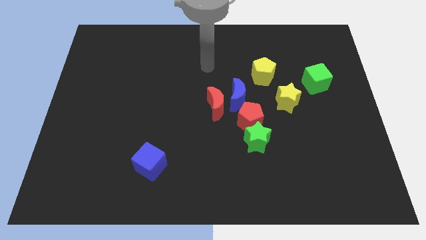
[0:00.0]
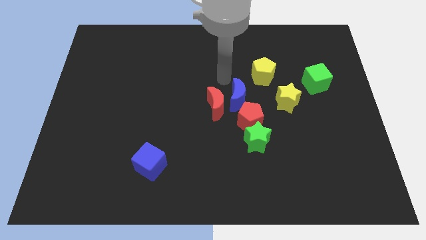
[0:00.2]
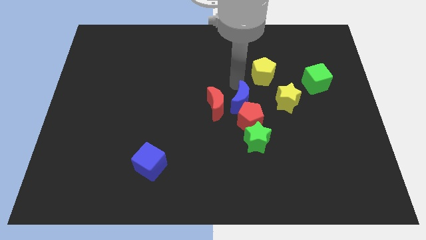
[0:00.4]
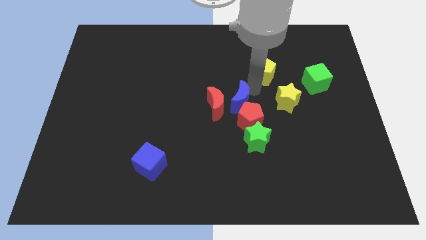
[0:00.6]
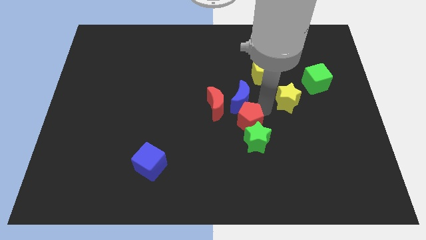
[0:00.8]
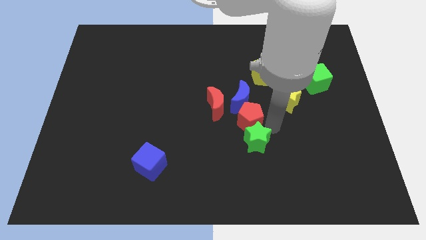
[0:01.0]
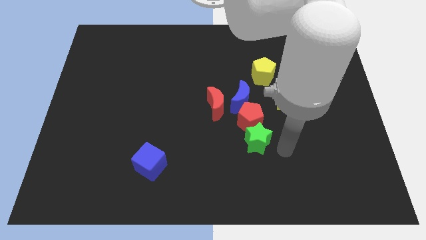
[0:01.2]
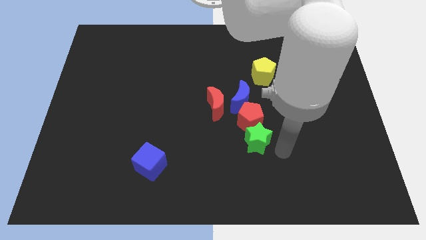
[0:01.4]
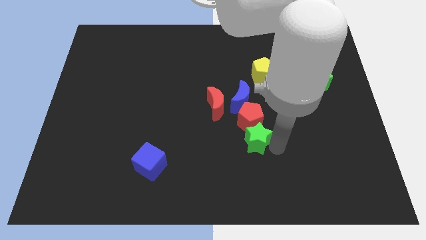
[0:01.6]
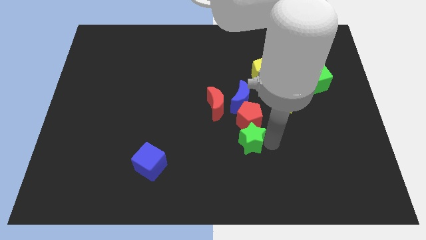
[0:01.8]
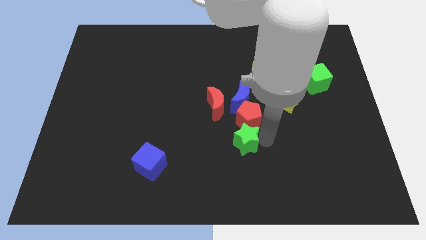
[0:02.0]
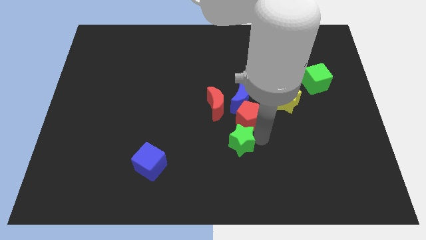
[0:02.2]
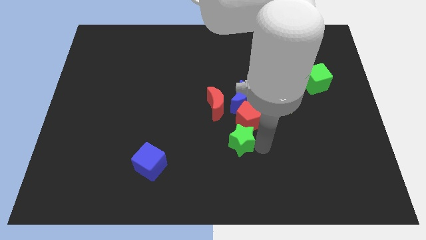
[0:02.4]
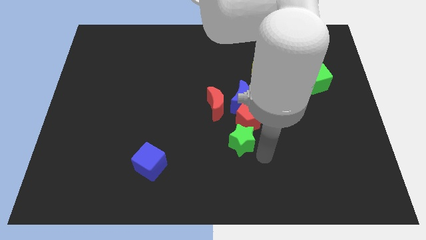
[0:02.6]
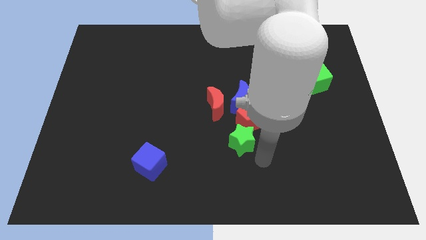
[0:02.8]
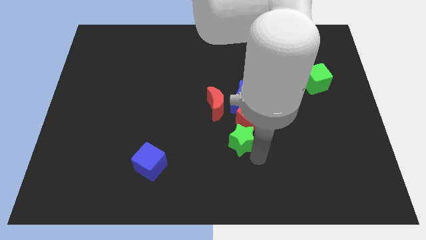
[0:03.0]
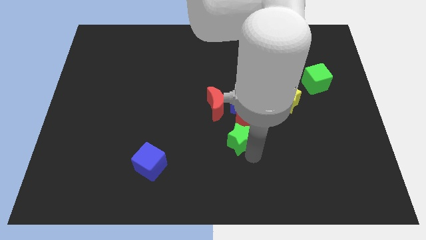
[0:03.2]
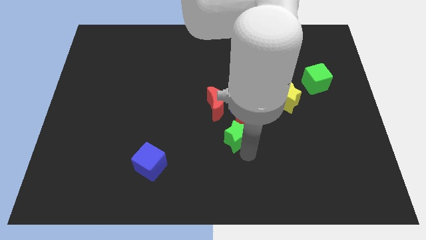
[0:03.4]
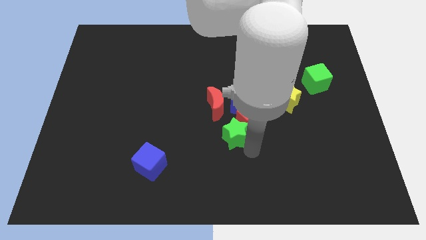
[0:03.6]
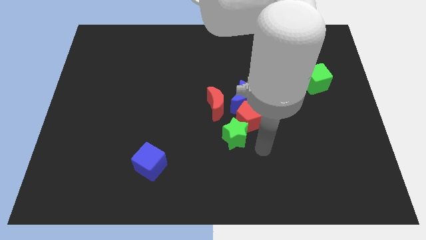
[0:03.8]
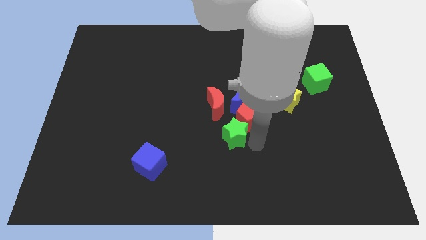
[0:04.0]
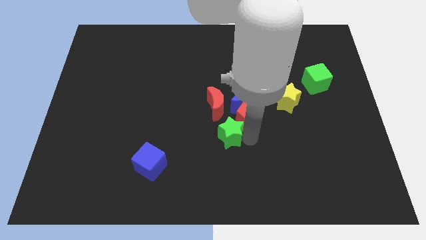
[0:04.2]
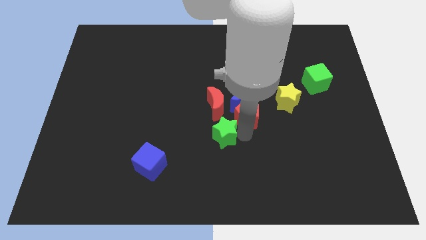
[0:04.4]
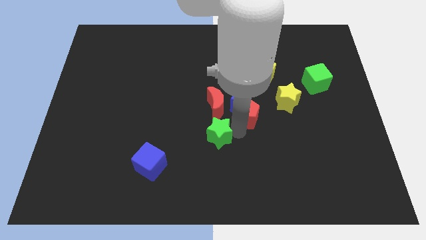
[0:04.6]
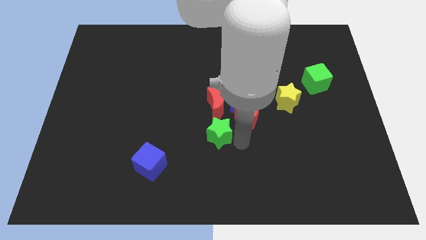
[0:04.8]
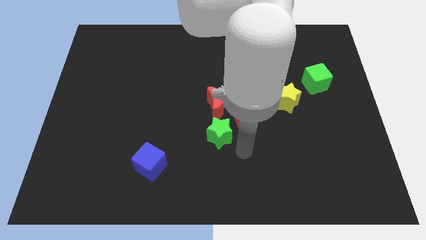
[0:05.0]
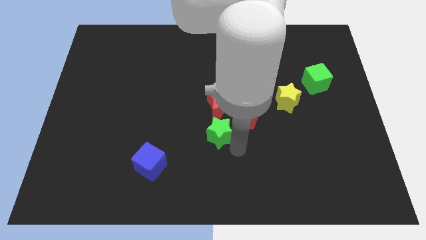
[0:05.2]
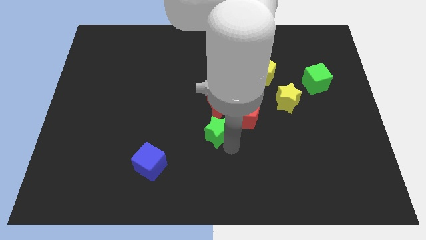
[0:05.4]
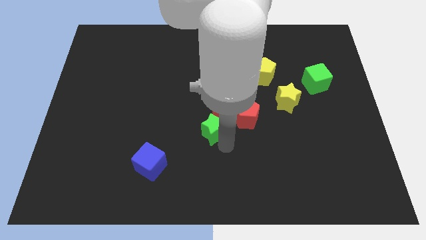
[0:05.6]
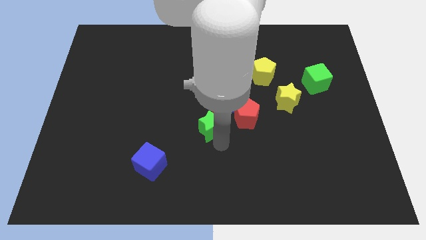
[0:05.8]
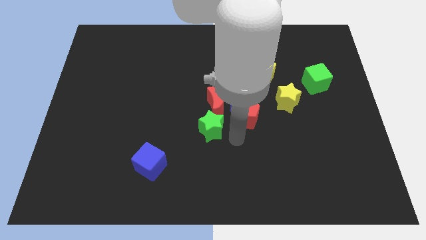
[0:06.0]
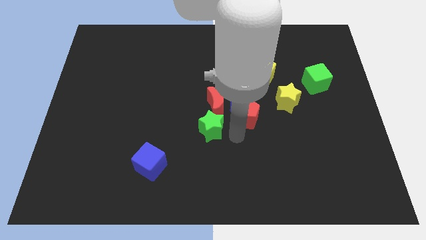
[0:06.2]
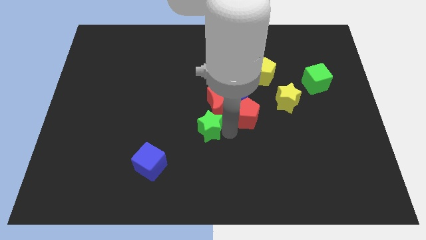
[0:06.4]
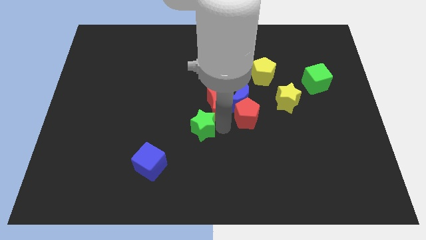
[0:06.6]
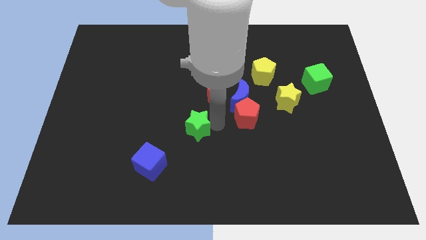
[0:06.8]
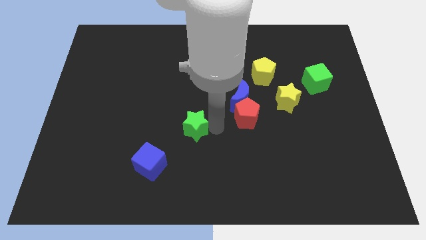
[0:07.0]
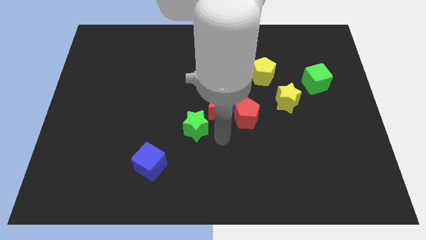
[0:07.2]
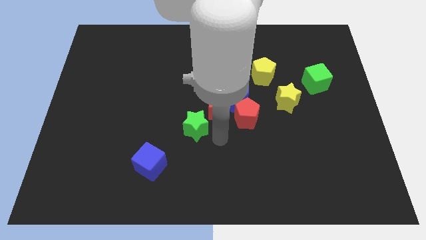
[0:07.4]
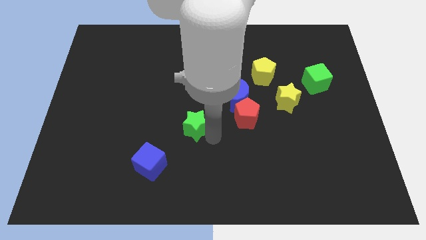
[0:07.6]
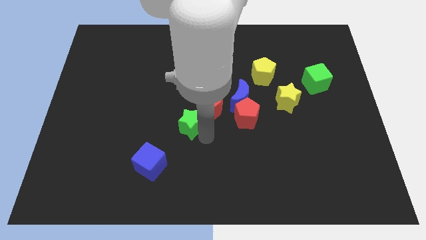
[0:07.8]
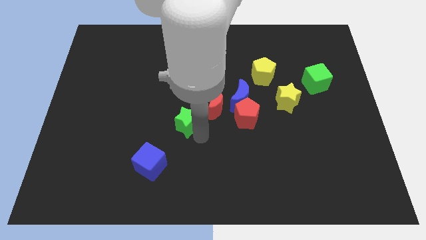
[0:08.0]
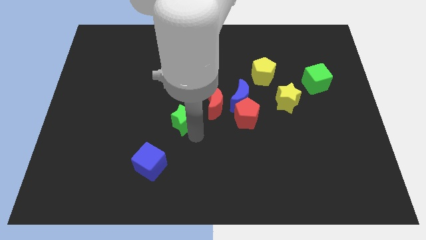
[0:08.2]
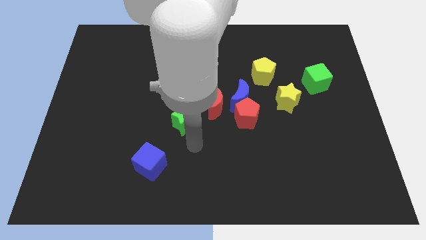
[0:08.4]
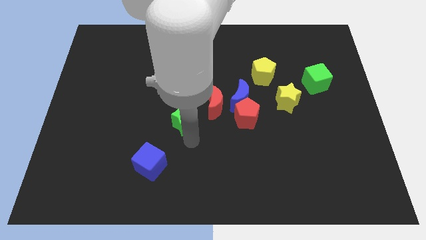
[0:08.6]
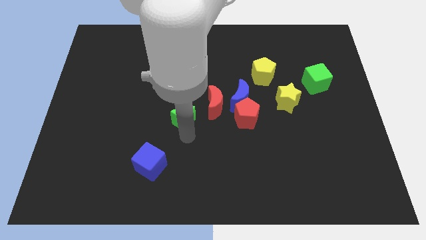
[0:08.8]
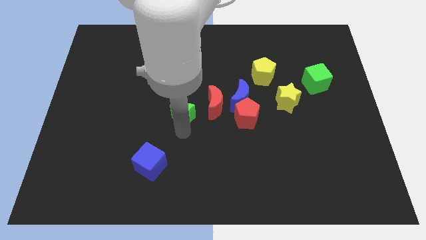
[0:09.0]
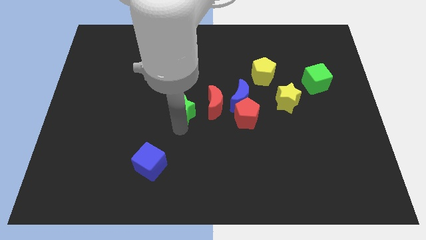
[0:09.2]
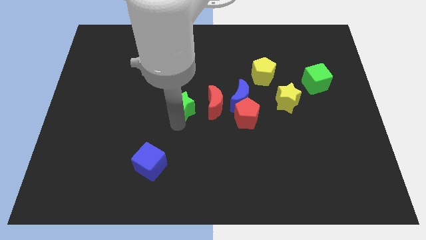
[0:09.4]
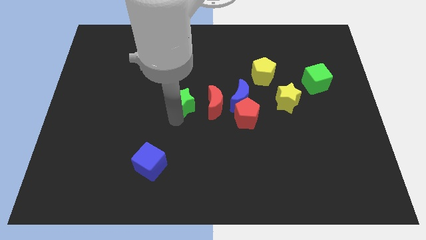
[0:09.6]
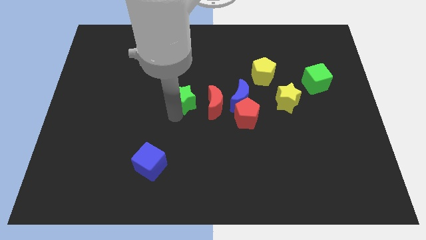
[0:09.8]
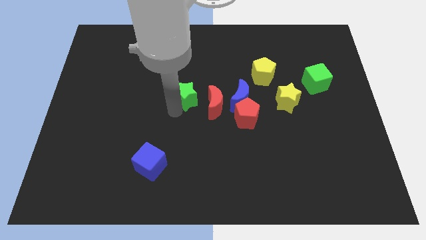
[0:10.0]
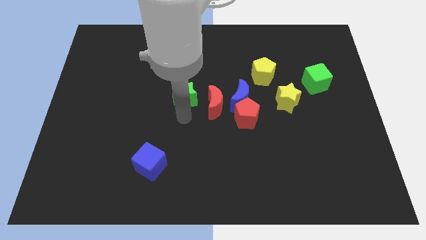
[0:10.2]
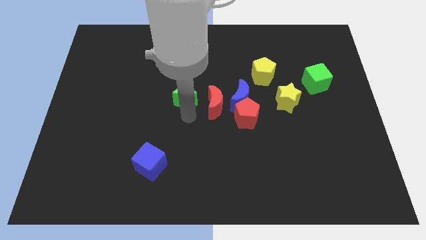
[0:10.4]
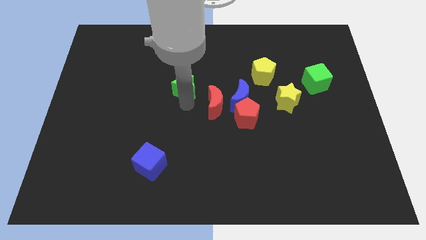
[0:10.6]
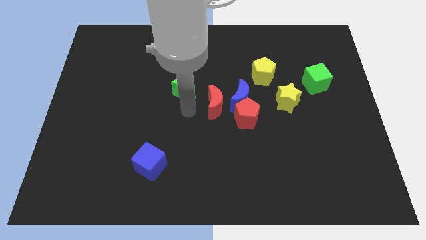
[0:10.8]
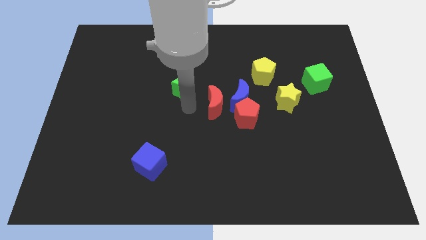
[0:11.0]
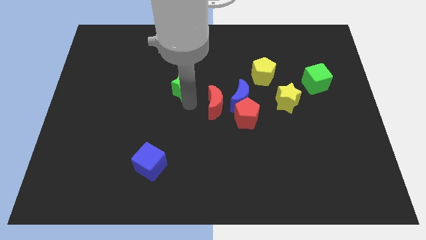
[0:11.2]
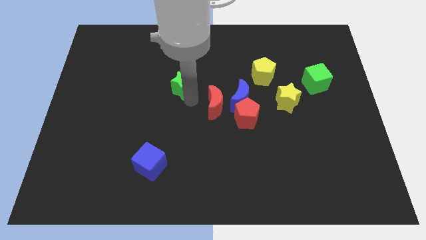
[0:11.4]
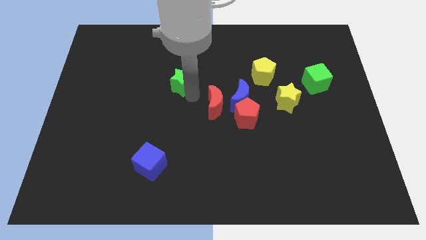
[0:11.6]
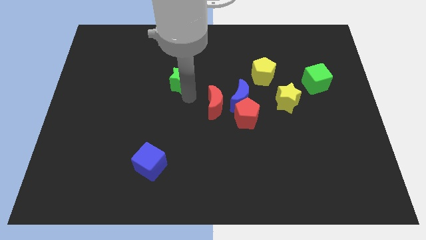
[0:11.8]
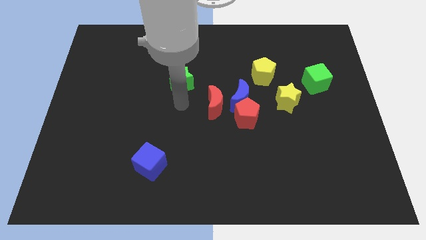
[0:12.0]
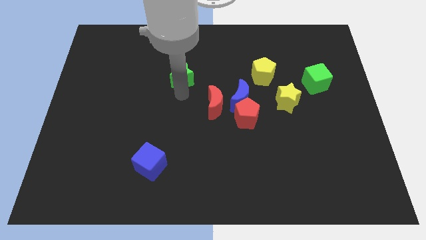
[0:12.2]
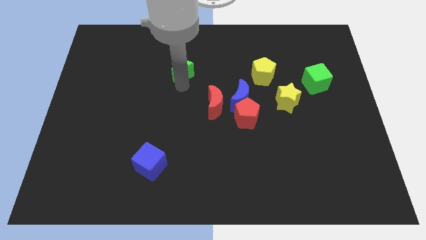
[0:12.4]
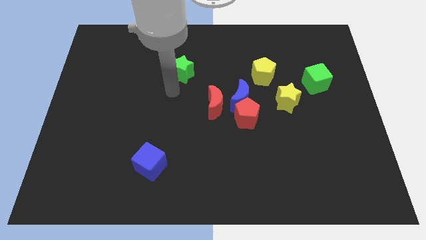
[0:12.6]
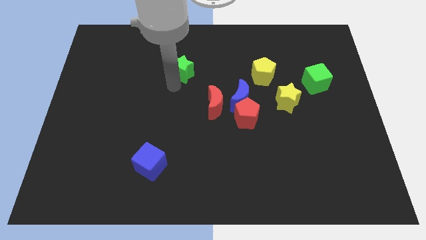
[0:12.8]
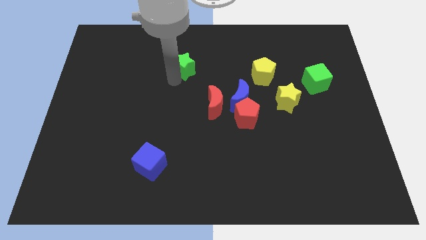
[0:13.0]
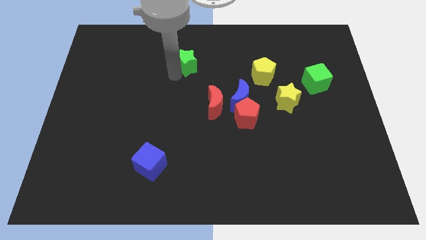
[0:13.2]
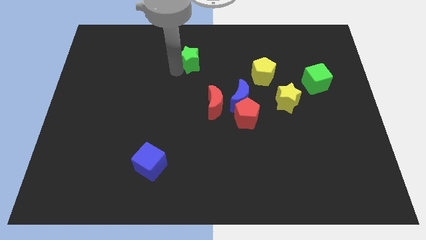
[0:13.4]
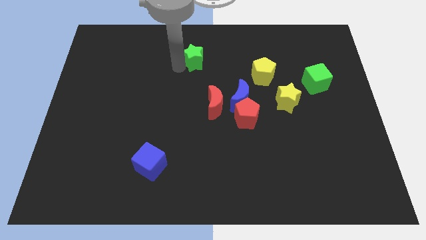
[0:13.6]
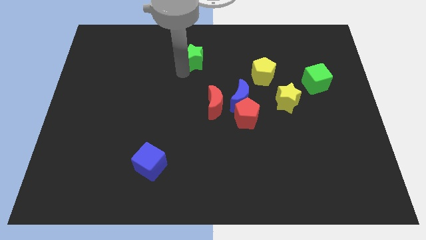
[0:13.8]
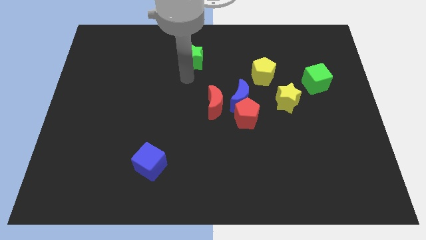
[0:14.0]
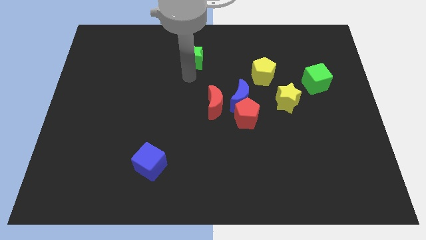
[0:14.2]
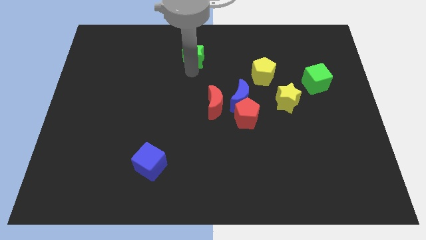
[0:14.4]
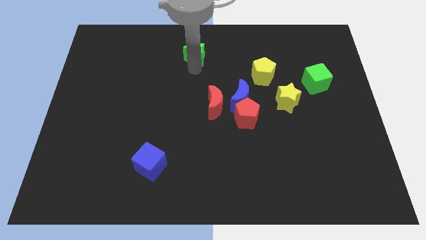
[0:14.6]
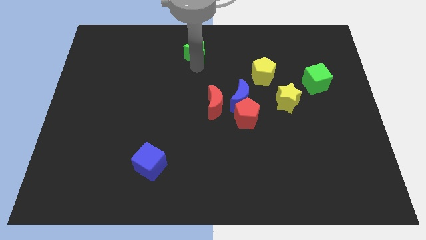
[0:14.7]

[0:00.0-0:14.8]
push the green star to the towards your base
